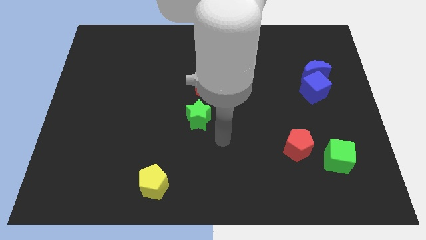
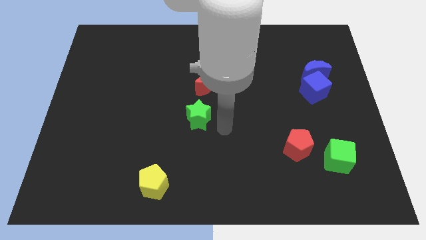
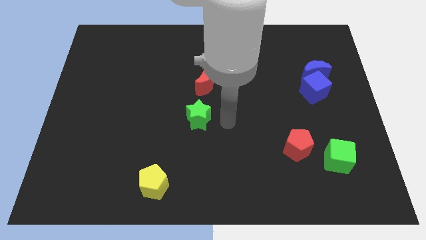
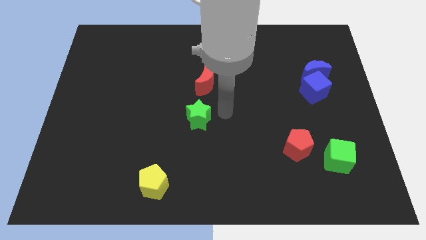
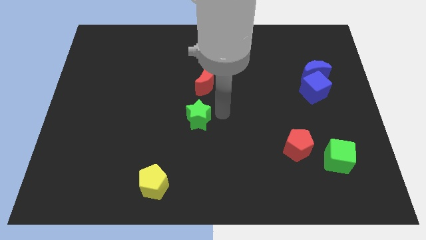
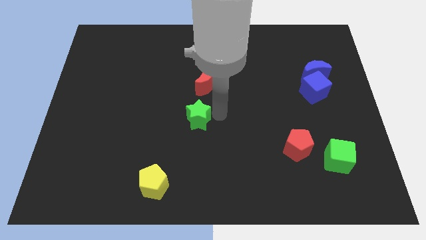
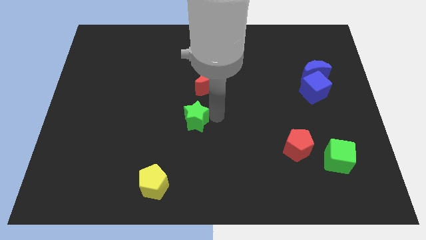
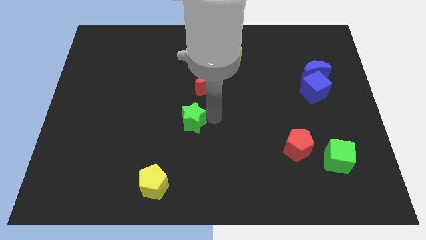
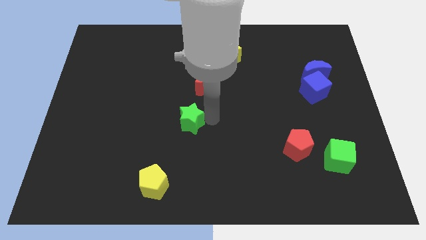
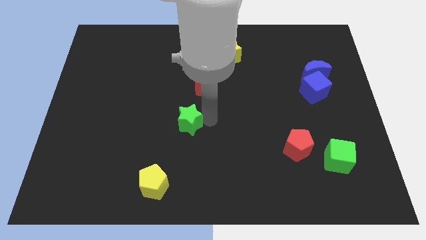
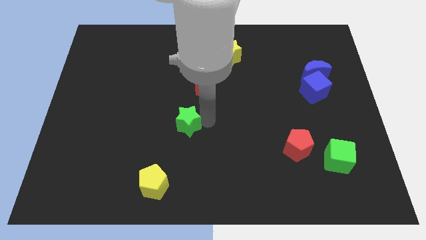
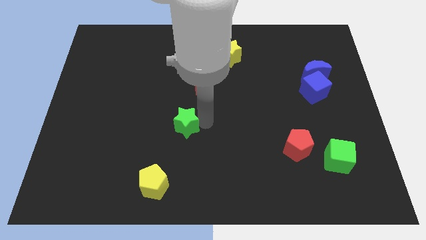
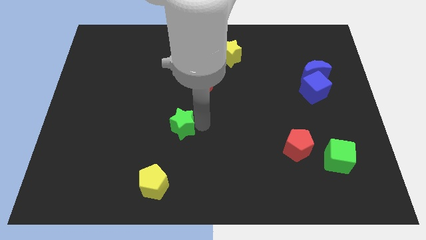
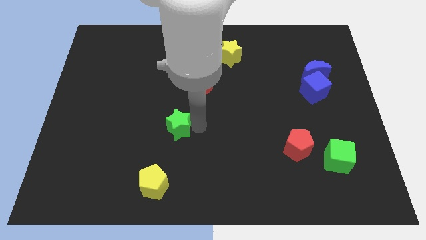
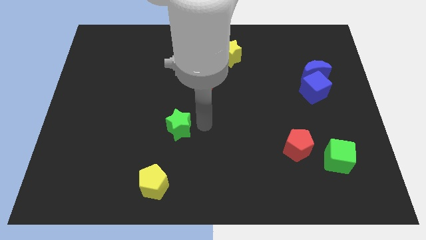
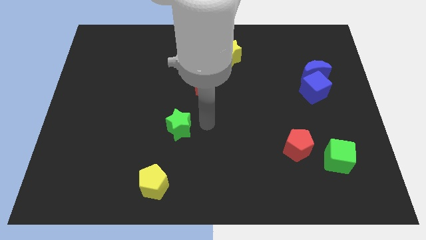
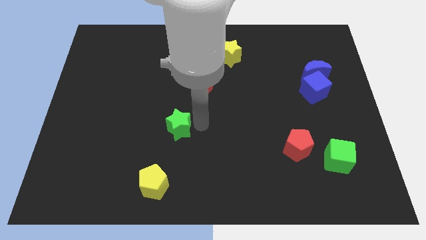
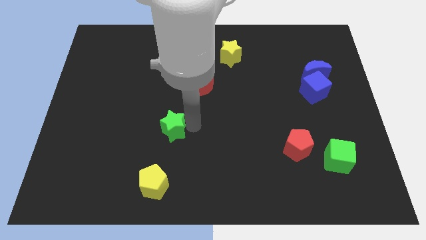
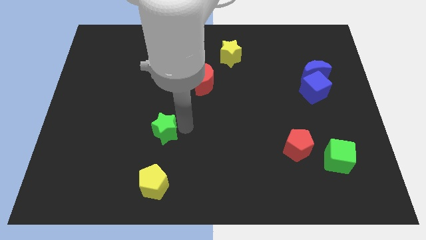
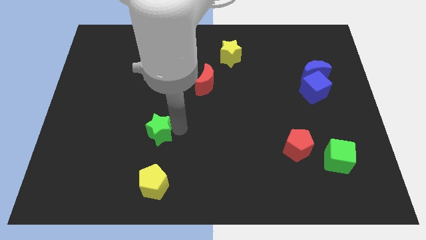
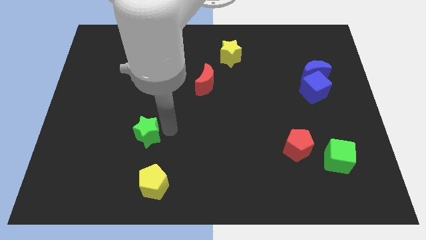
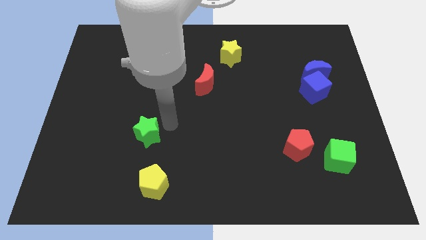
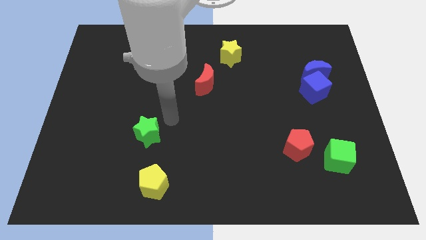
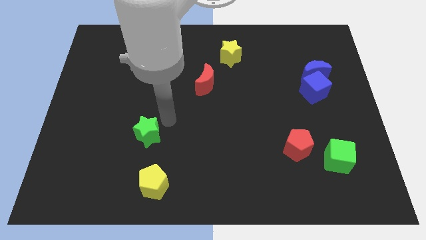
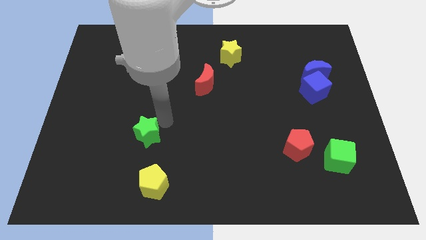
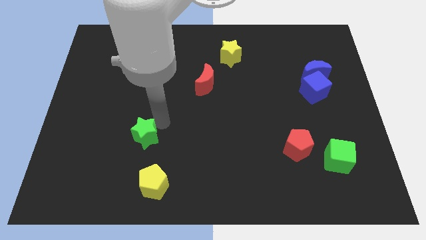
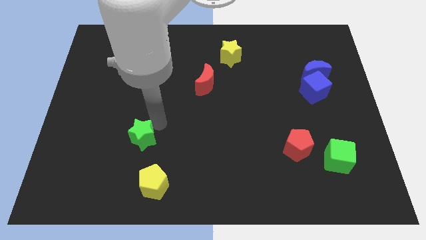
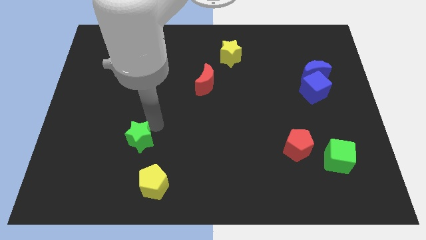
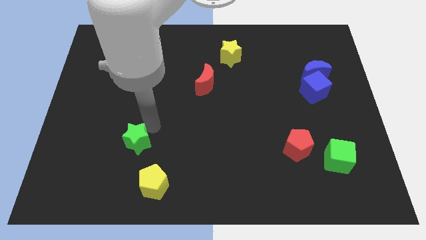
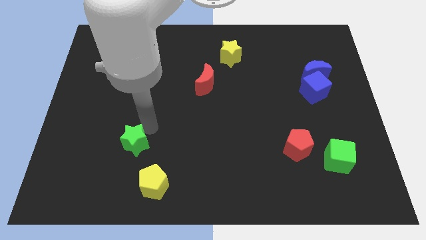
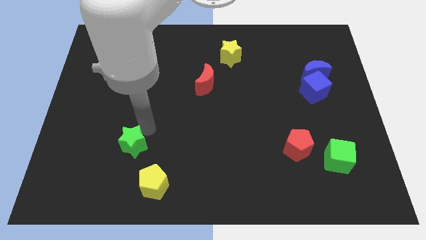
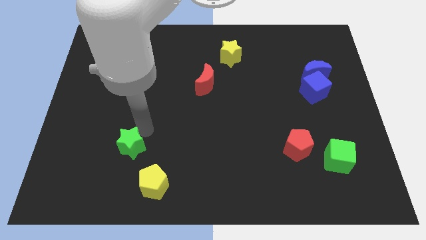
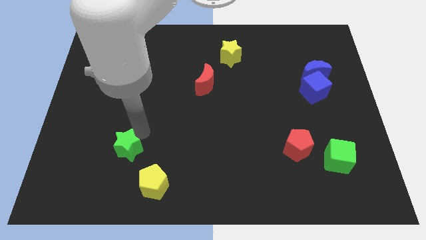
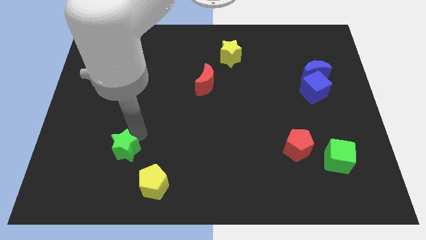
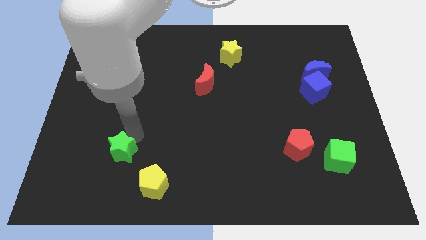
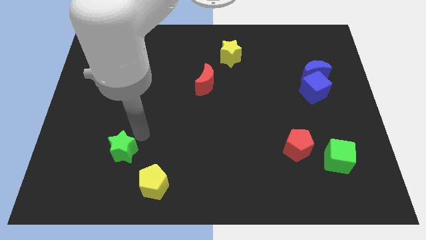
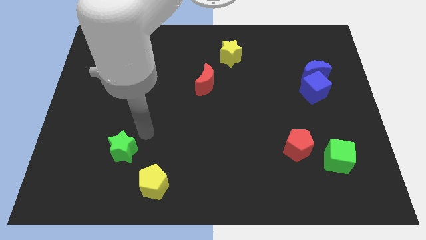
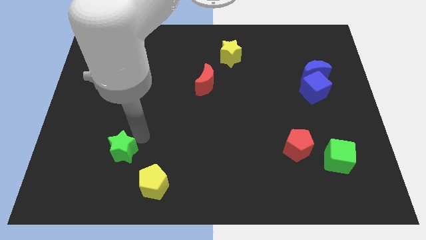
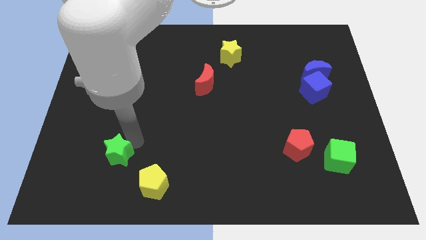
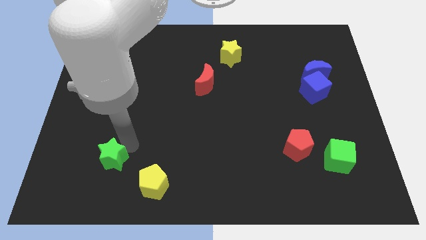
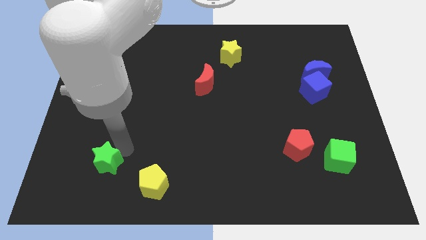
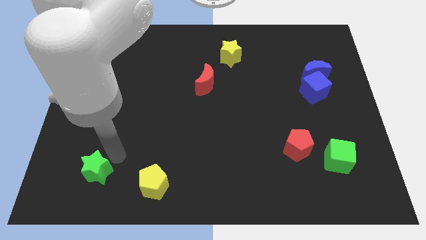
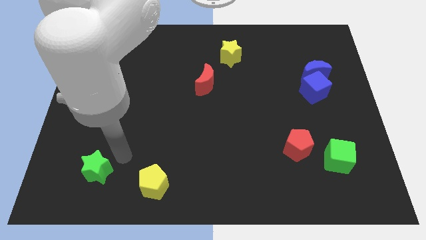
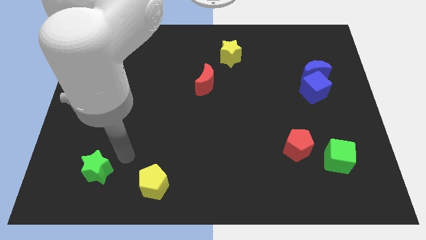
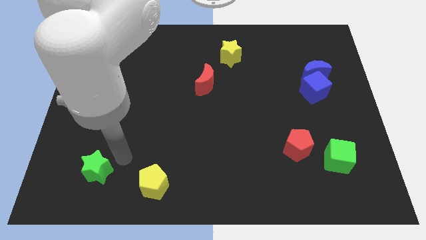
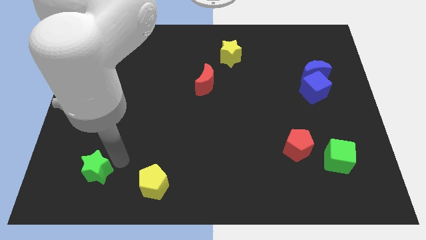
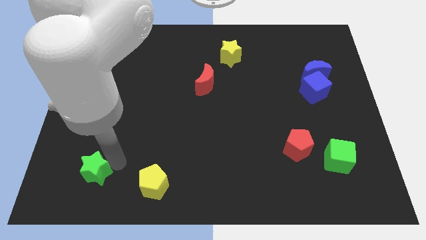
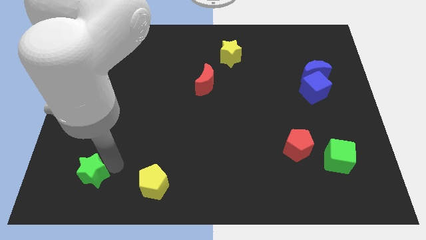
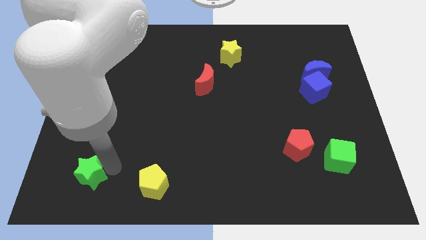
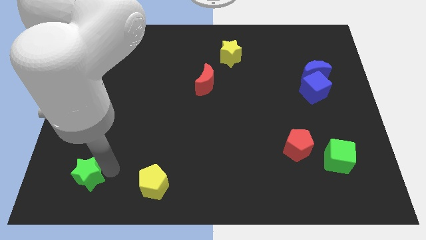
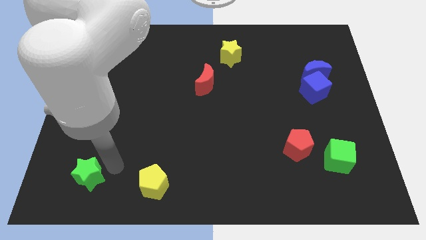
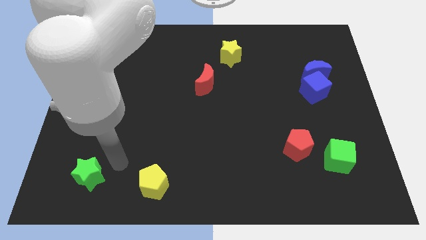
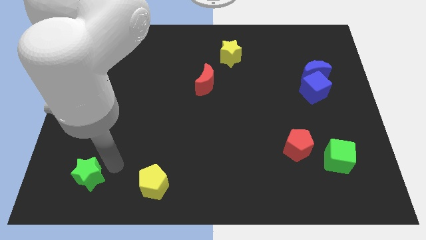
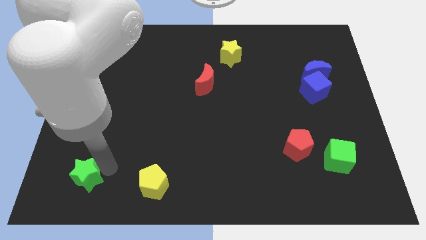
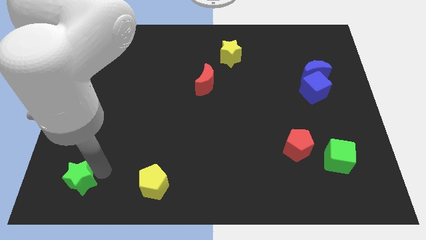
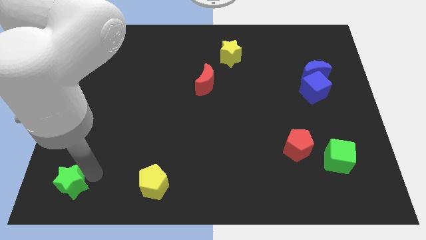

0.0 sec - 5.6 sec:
move the green star to the lower left corner
